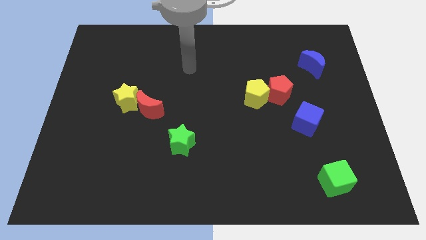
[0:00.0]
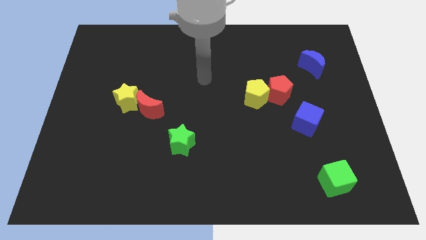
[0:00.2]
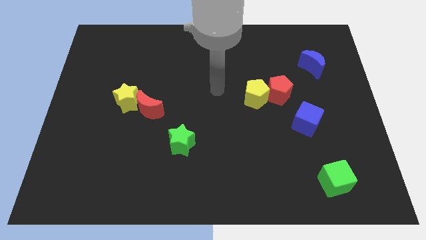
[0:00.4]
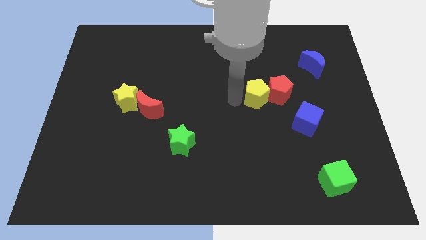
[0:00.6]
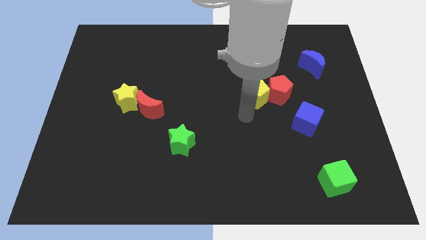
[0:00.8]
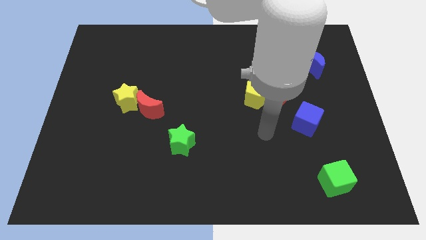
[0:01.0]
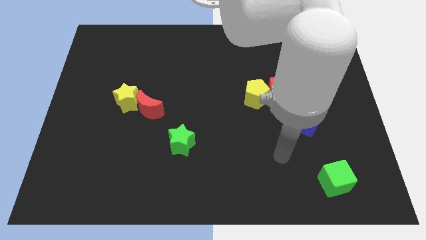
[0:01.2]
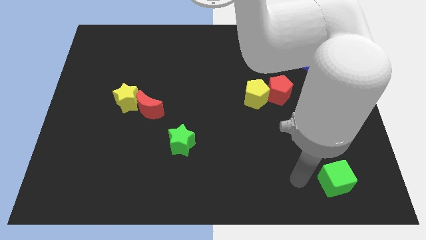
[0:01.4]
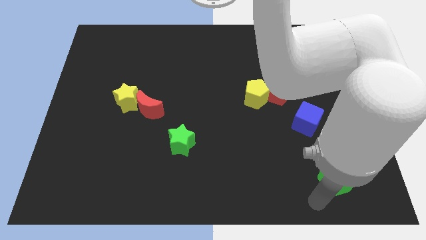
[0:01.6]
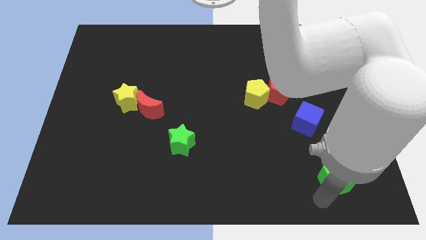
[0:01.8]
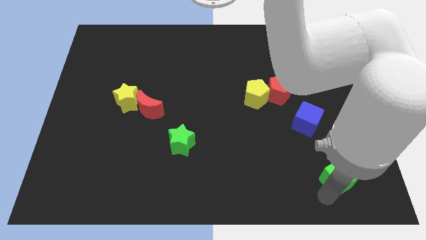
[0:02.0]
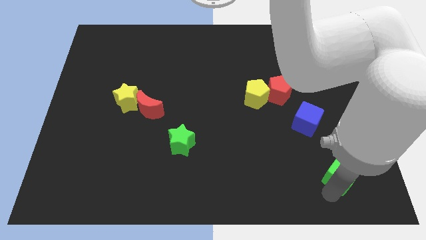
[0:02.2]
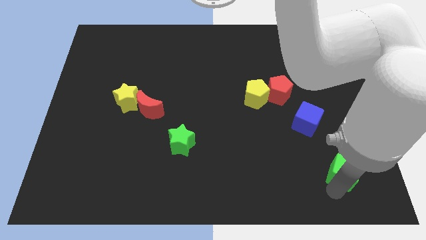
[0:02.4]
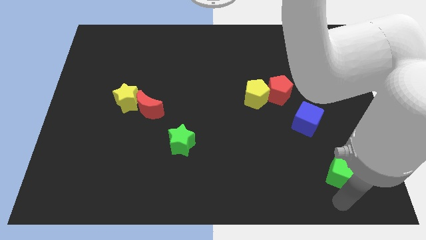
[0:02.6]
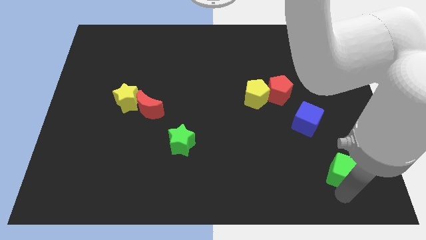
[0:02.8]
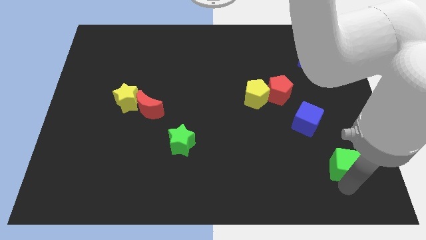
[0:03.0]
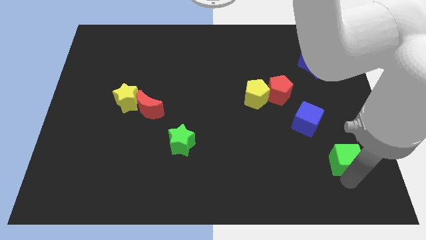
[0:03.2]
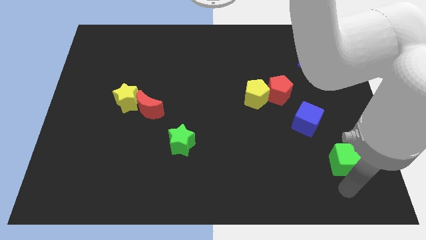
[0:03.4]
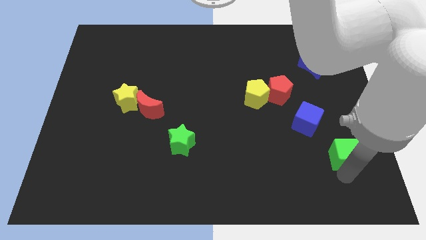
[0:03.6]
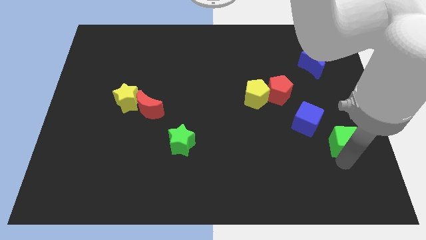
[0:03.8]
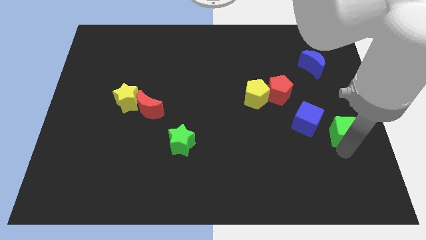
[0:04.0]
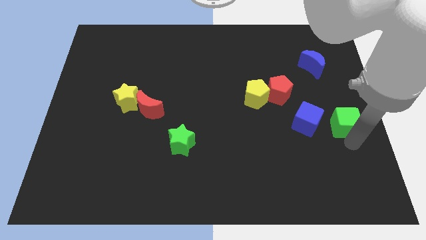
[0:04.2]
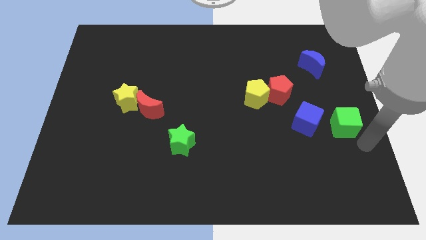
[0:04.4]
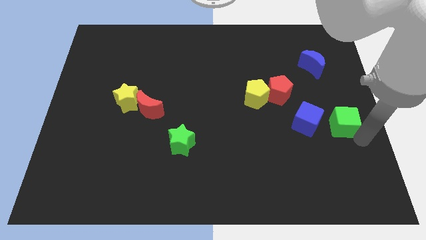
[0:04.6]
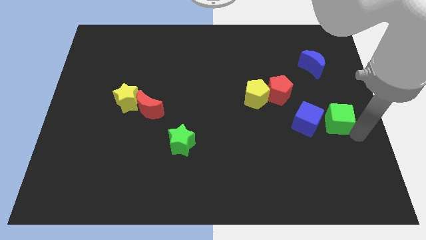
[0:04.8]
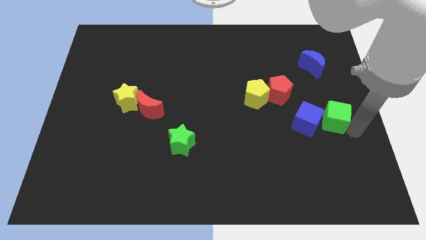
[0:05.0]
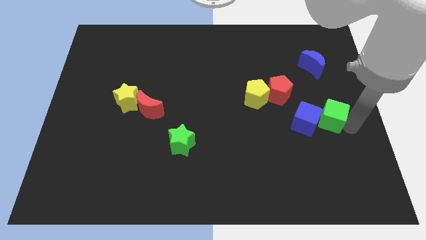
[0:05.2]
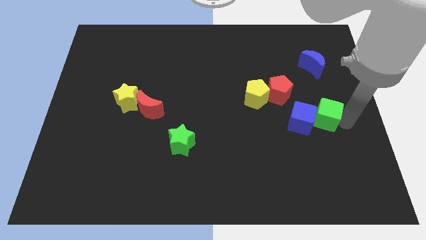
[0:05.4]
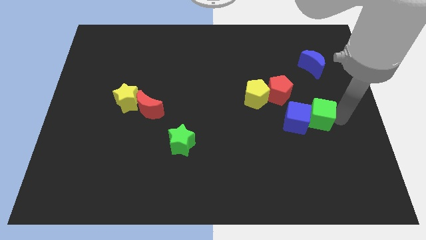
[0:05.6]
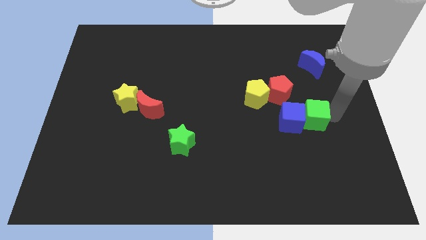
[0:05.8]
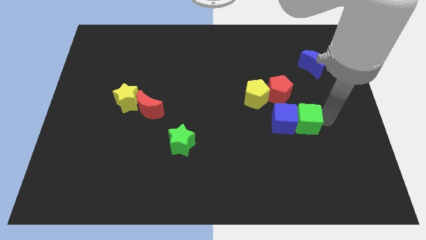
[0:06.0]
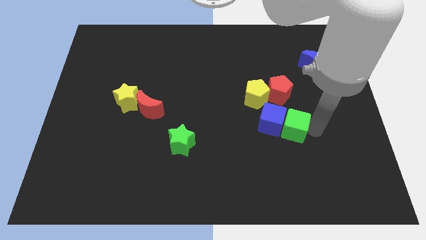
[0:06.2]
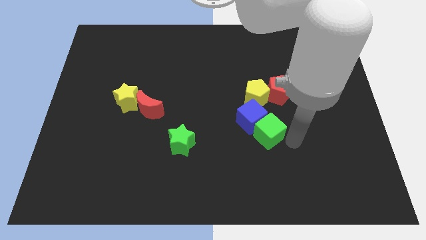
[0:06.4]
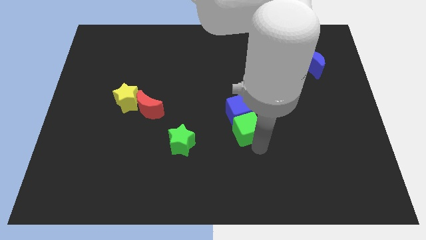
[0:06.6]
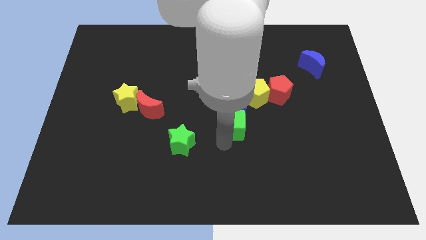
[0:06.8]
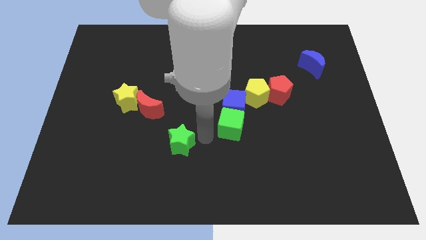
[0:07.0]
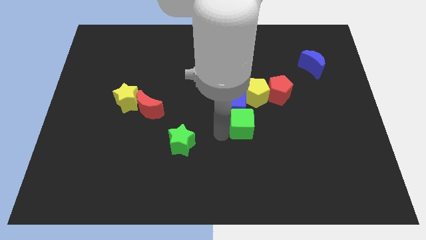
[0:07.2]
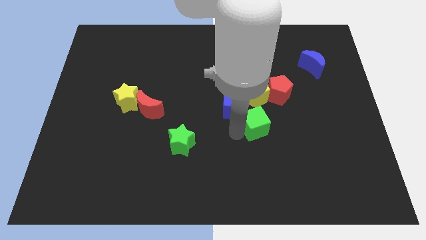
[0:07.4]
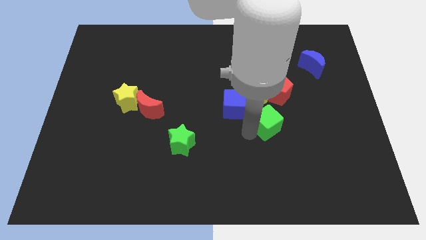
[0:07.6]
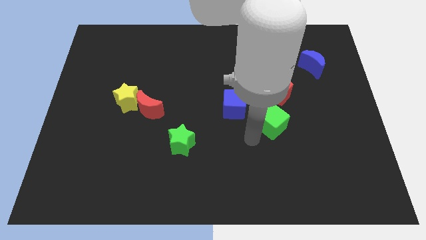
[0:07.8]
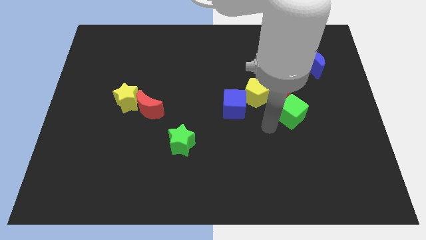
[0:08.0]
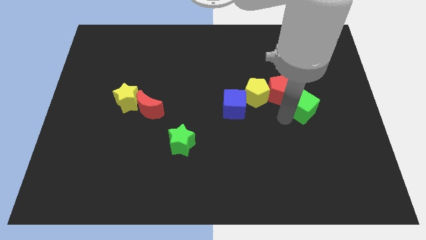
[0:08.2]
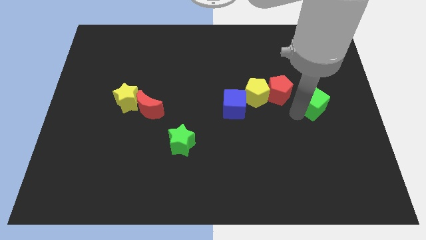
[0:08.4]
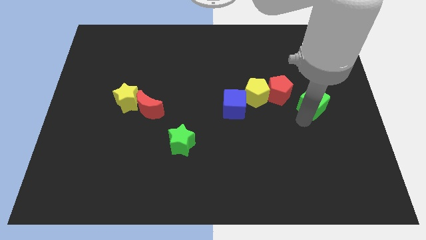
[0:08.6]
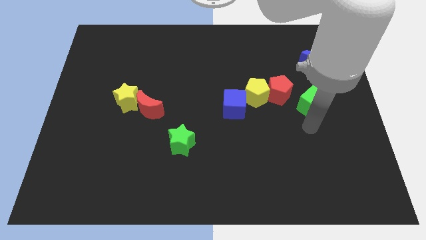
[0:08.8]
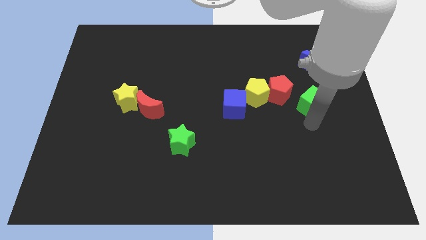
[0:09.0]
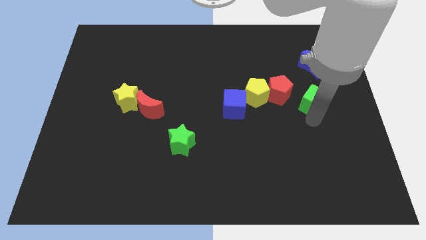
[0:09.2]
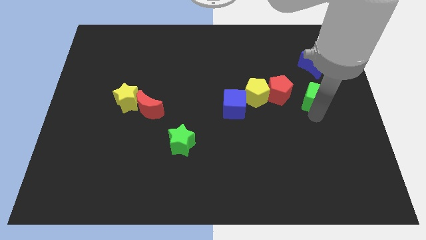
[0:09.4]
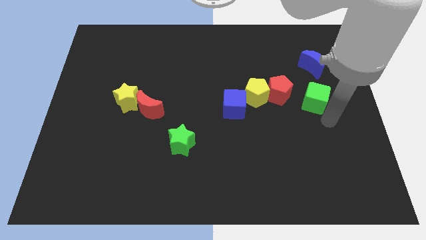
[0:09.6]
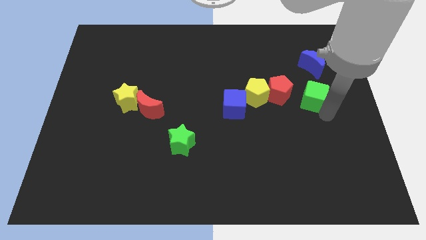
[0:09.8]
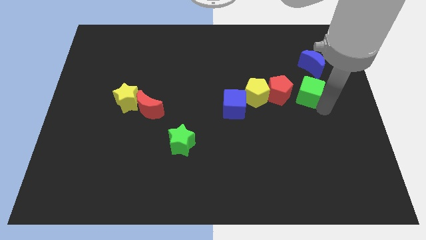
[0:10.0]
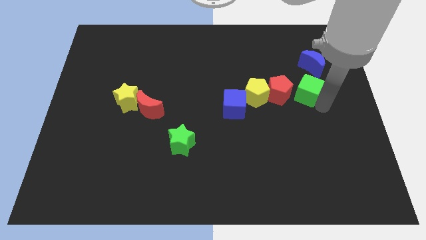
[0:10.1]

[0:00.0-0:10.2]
push the green cube diagonally up and to the right of the red pentagon

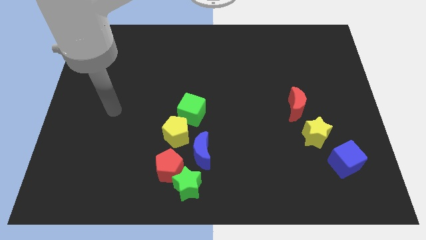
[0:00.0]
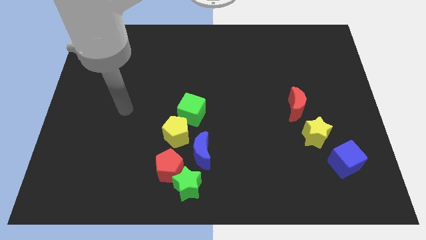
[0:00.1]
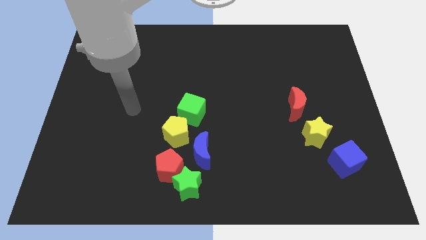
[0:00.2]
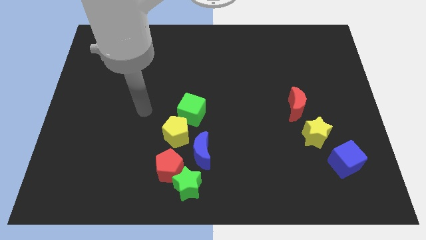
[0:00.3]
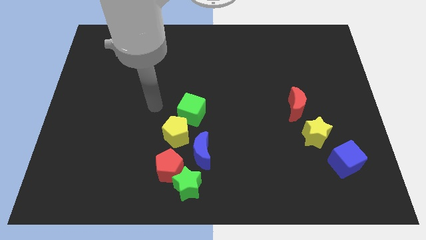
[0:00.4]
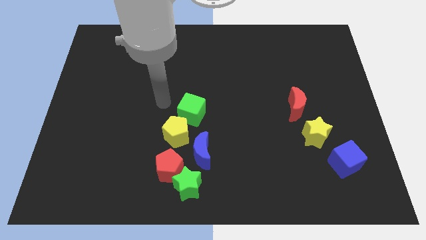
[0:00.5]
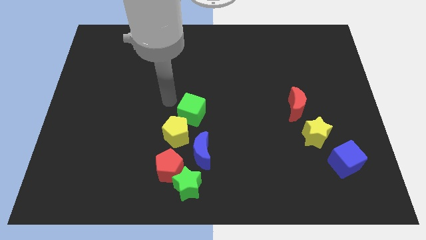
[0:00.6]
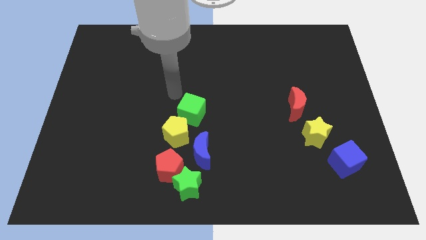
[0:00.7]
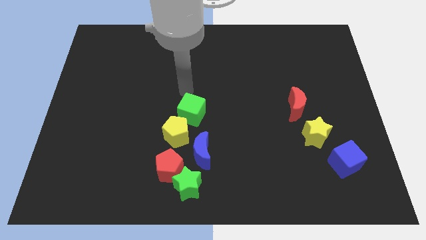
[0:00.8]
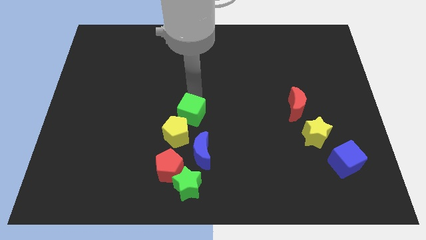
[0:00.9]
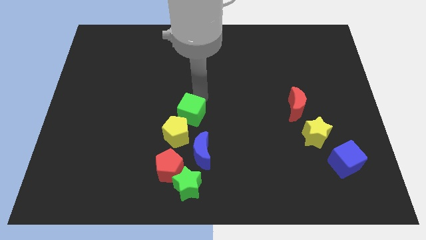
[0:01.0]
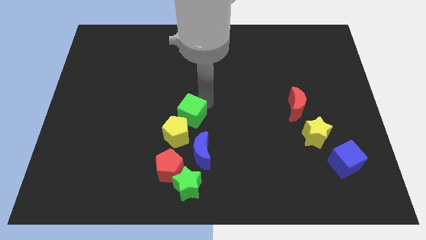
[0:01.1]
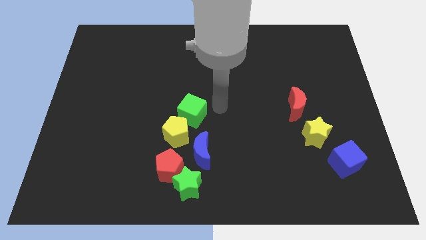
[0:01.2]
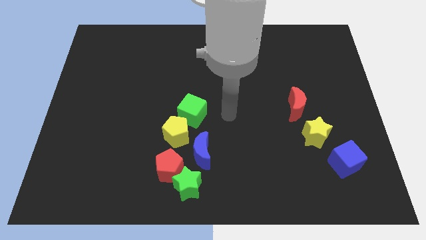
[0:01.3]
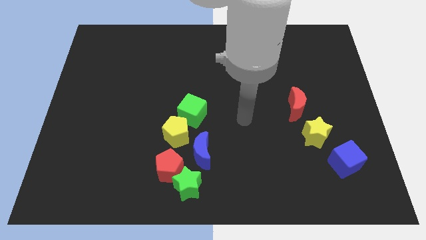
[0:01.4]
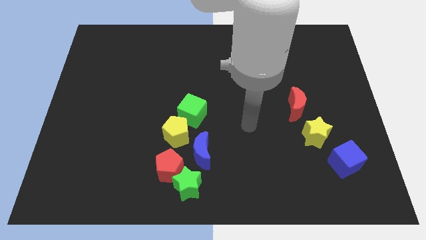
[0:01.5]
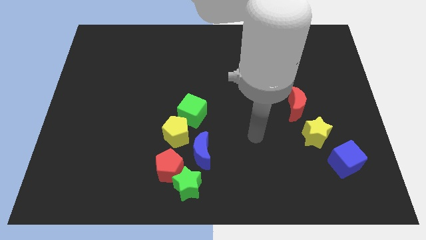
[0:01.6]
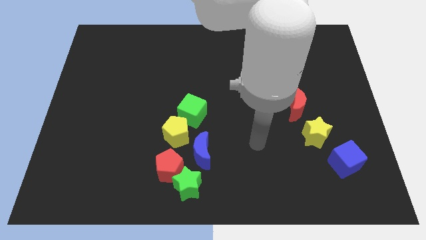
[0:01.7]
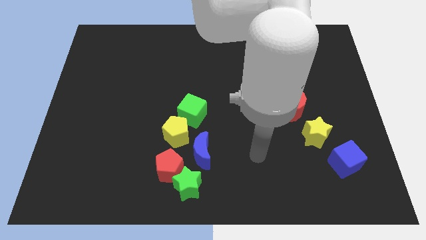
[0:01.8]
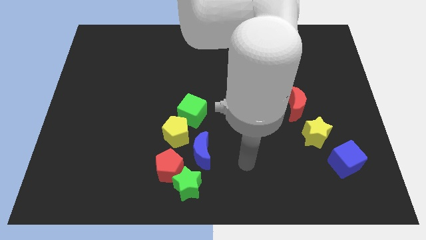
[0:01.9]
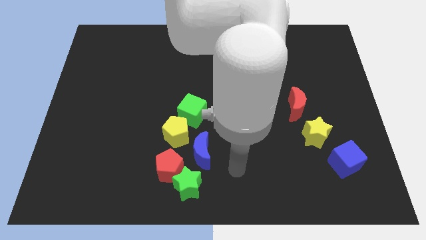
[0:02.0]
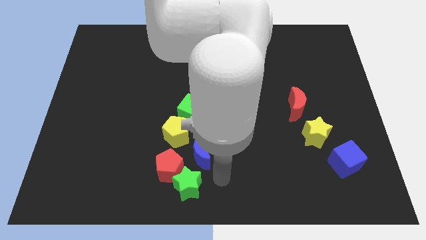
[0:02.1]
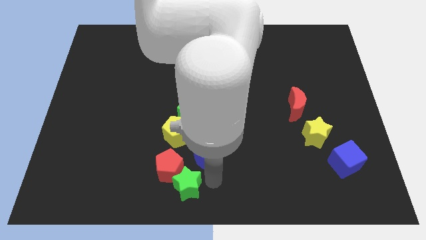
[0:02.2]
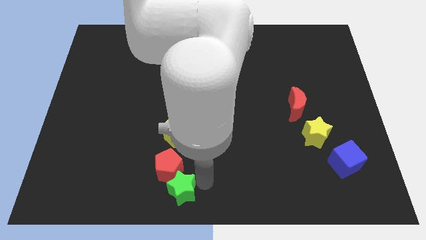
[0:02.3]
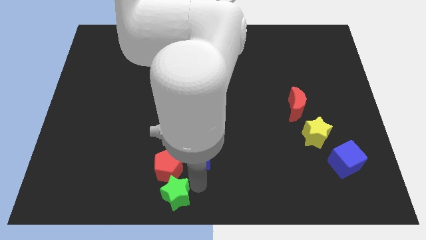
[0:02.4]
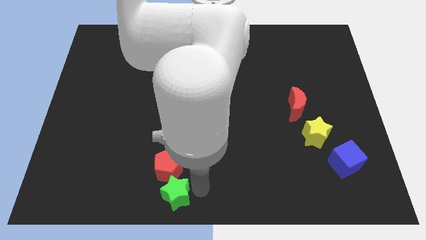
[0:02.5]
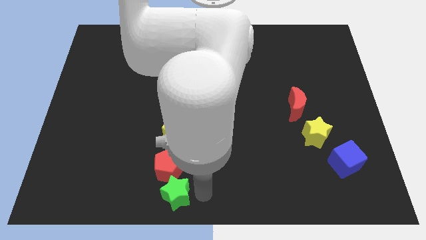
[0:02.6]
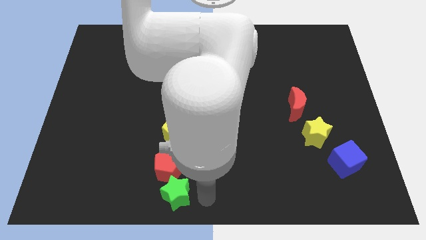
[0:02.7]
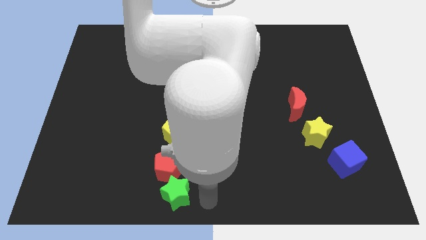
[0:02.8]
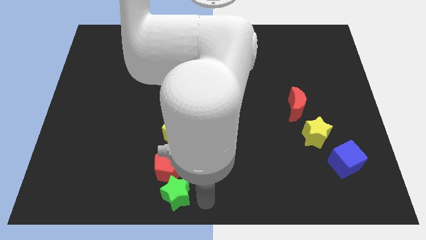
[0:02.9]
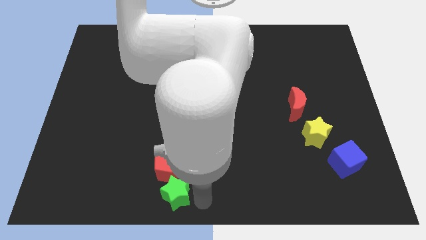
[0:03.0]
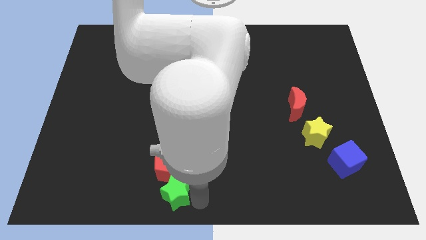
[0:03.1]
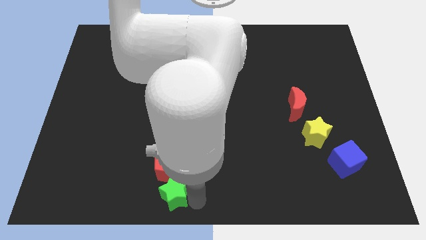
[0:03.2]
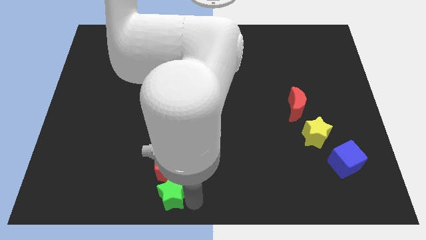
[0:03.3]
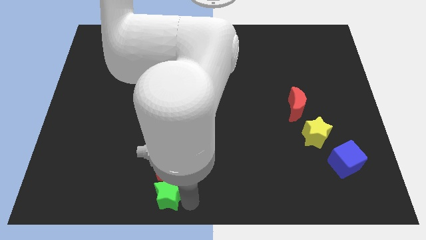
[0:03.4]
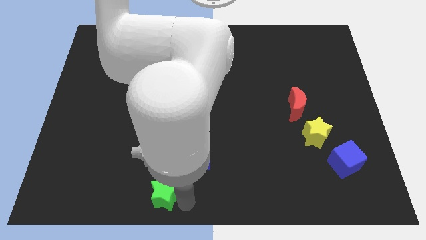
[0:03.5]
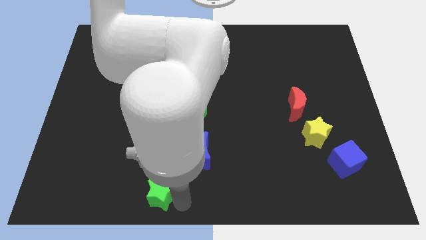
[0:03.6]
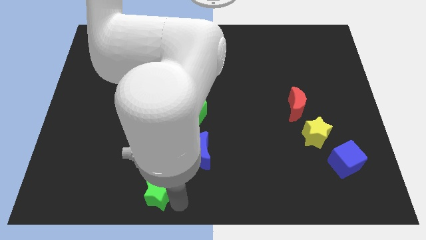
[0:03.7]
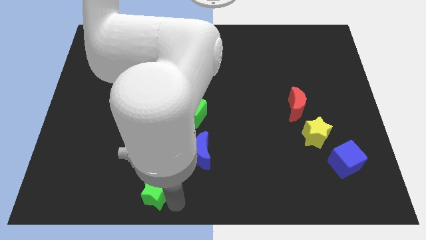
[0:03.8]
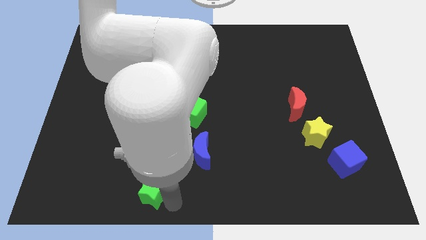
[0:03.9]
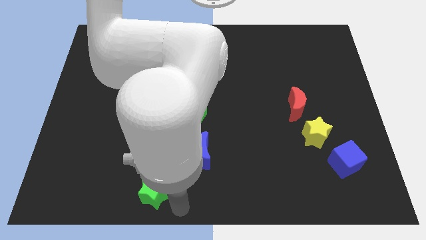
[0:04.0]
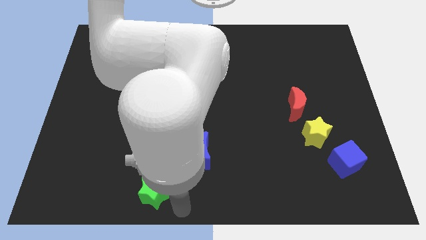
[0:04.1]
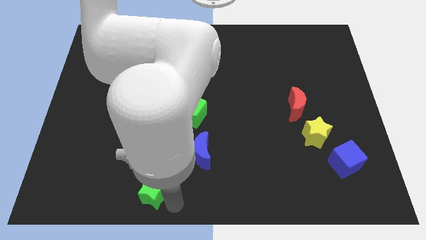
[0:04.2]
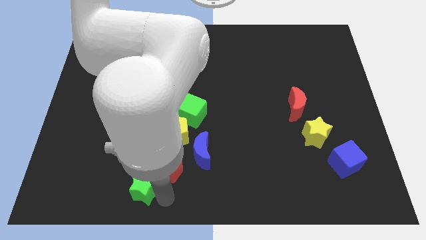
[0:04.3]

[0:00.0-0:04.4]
move the green star just left of the red pentagon
